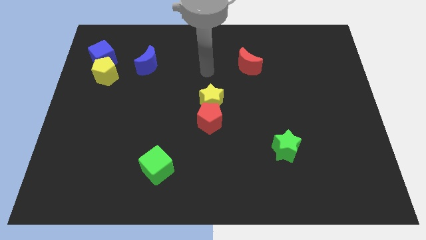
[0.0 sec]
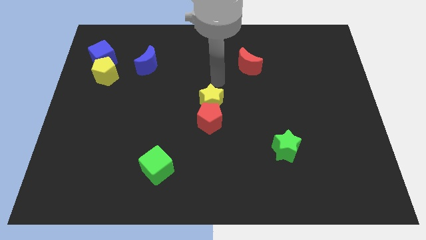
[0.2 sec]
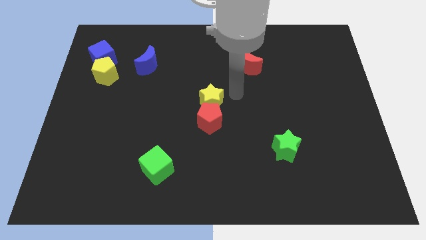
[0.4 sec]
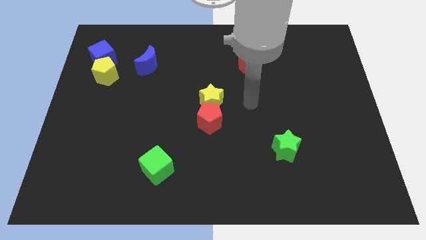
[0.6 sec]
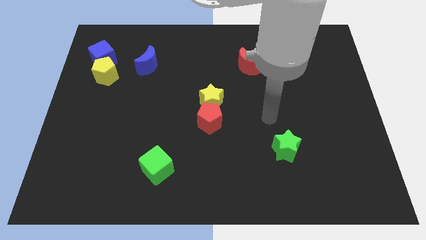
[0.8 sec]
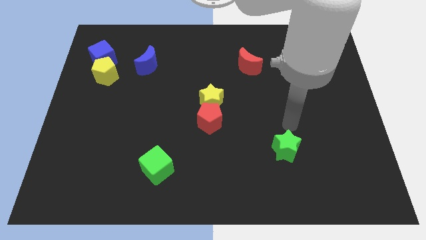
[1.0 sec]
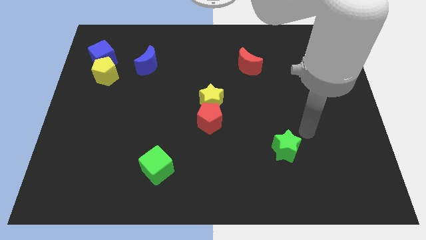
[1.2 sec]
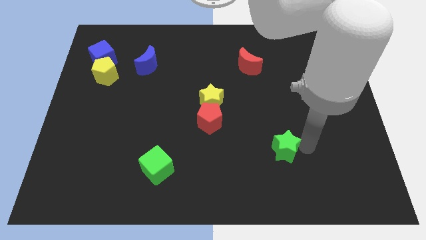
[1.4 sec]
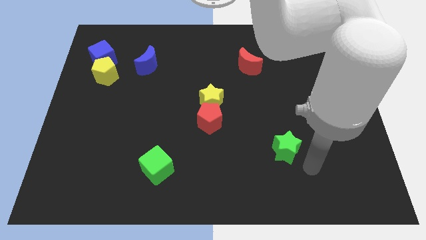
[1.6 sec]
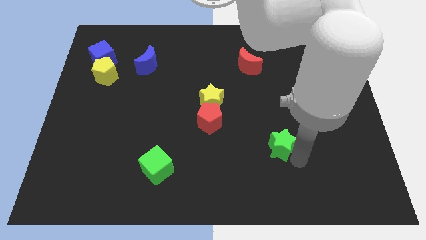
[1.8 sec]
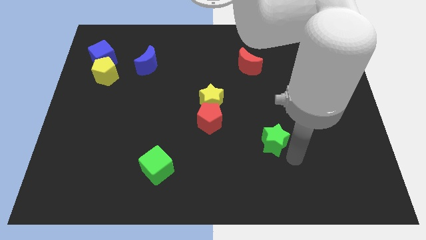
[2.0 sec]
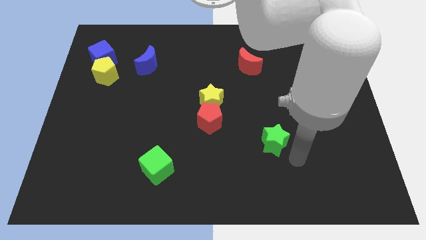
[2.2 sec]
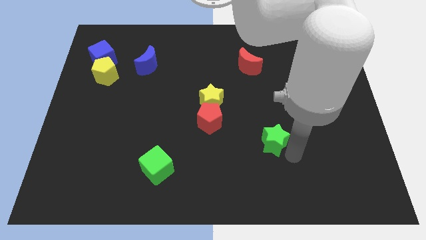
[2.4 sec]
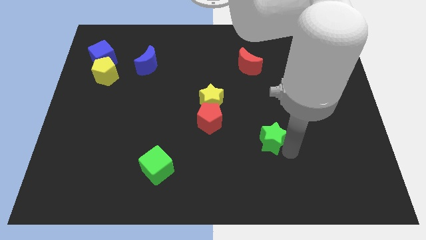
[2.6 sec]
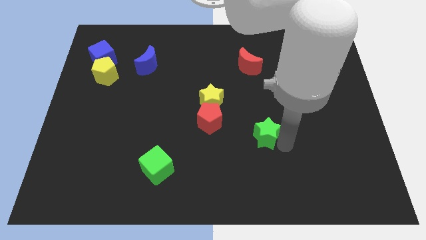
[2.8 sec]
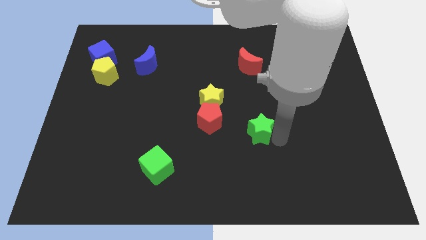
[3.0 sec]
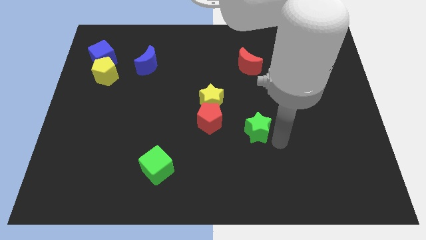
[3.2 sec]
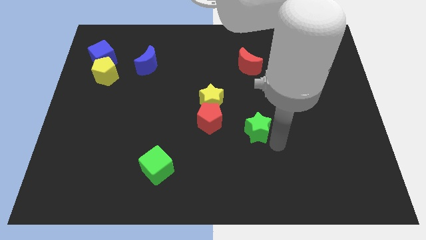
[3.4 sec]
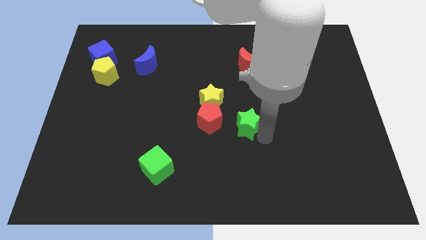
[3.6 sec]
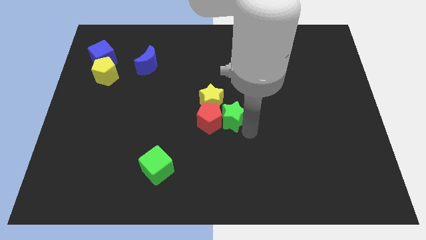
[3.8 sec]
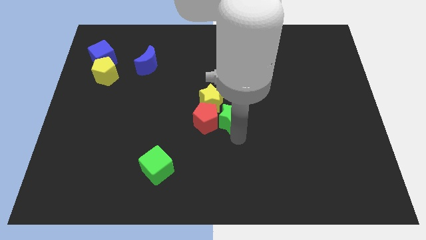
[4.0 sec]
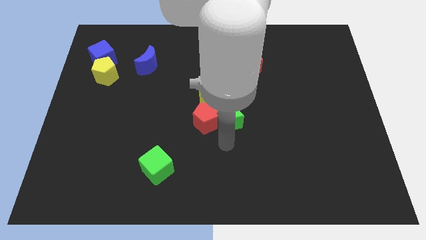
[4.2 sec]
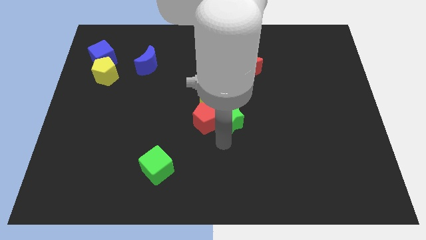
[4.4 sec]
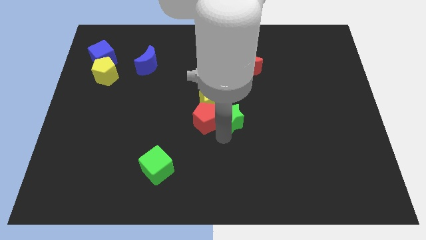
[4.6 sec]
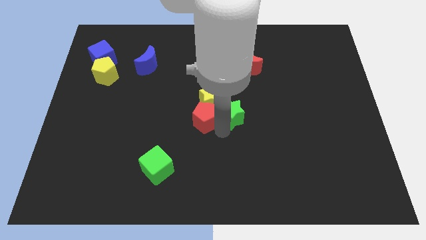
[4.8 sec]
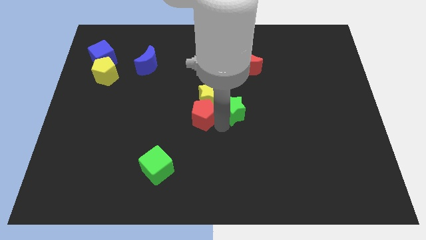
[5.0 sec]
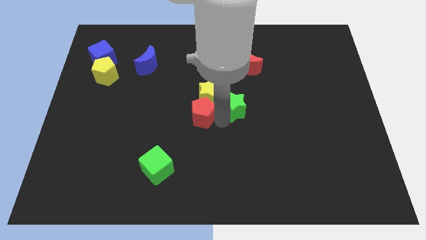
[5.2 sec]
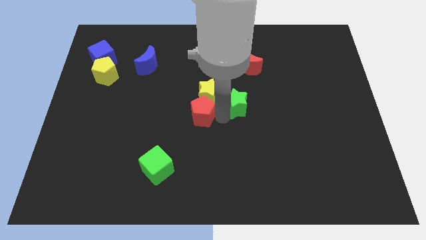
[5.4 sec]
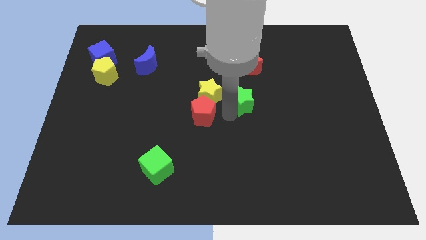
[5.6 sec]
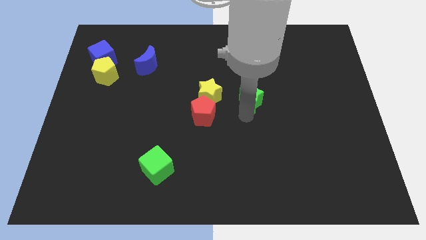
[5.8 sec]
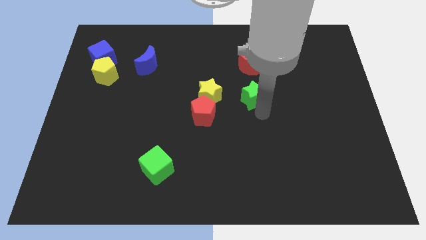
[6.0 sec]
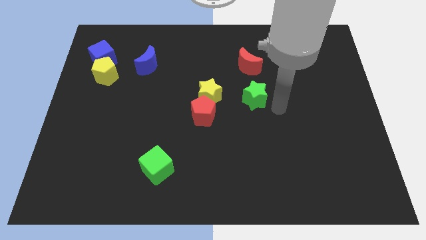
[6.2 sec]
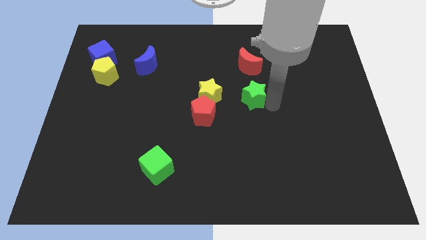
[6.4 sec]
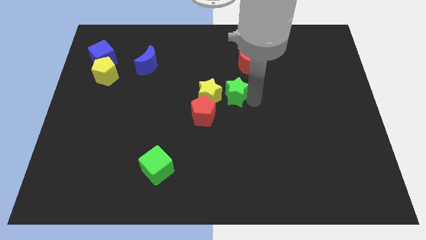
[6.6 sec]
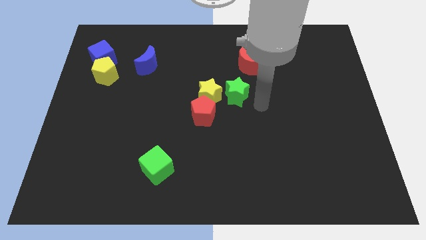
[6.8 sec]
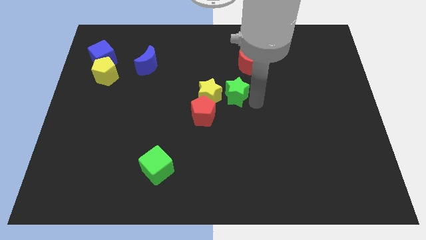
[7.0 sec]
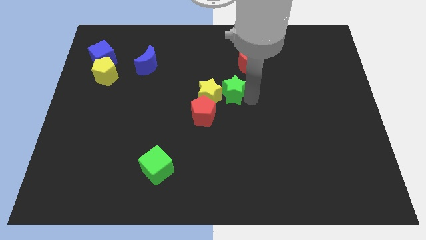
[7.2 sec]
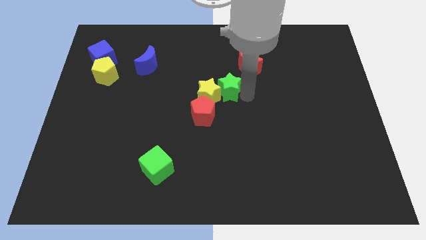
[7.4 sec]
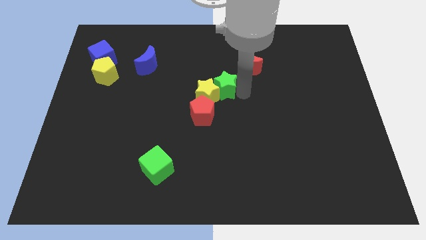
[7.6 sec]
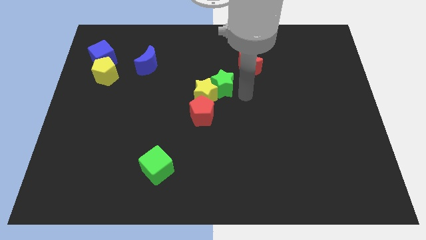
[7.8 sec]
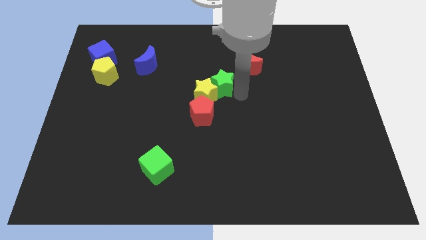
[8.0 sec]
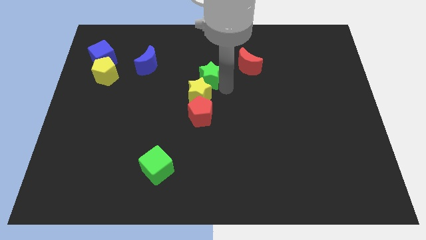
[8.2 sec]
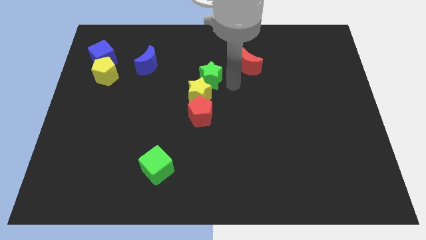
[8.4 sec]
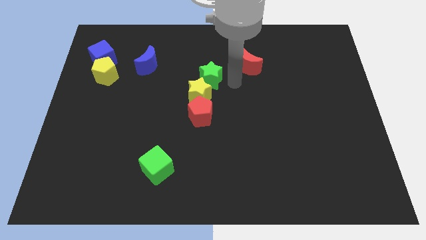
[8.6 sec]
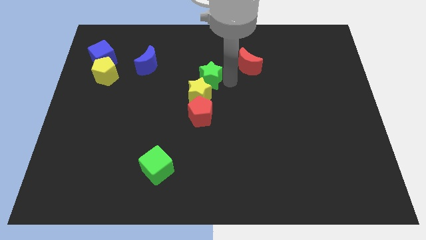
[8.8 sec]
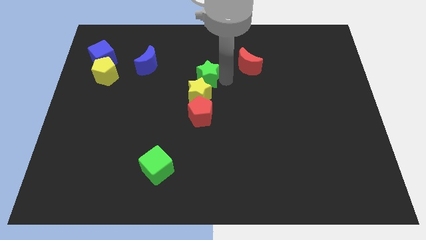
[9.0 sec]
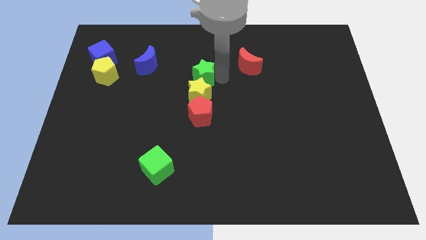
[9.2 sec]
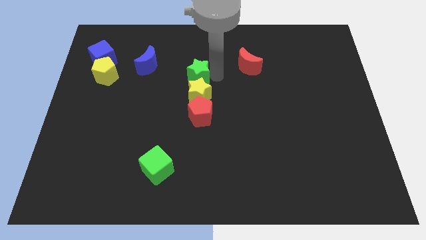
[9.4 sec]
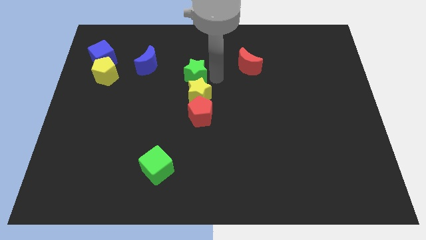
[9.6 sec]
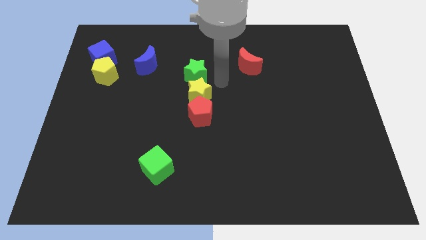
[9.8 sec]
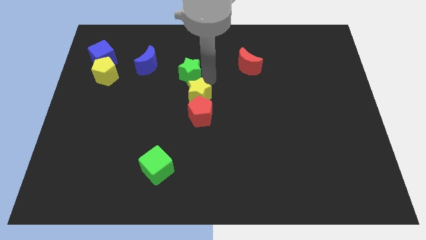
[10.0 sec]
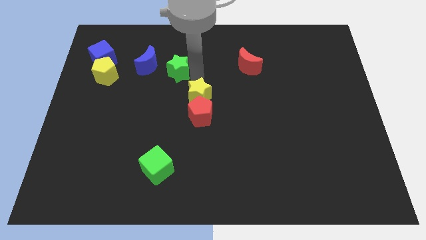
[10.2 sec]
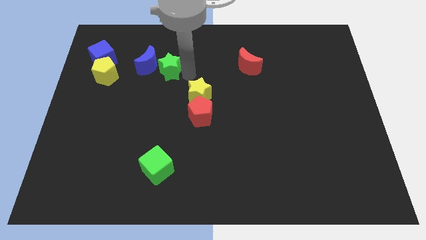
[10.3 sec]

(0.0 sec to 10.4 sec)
slide the green star to the blue moon

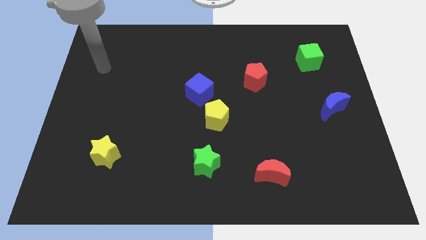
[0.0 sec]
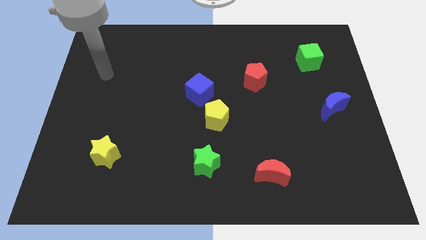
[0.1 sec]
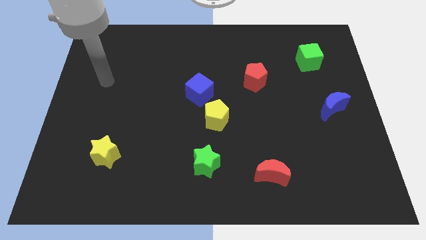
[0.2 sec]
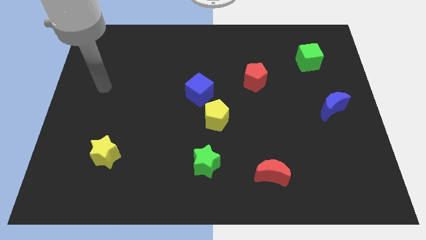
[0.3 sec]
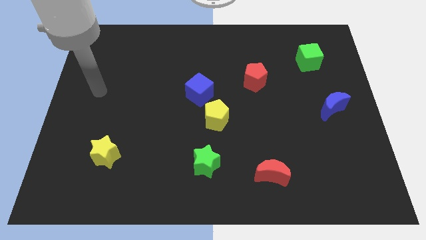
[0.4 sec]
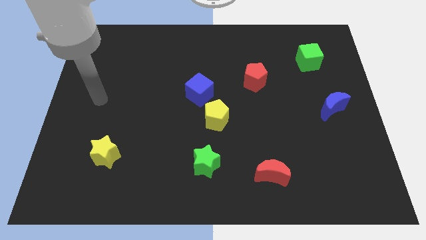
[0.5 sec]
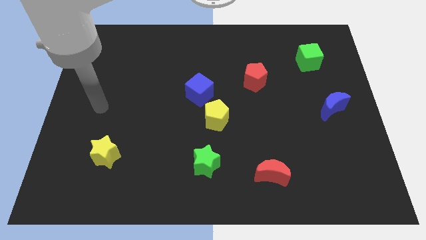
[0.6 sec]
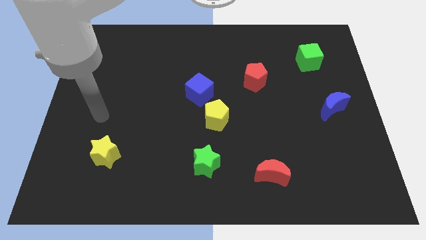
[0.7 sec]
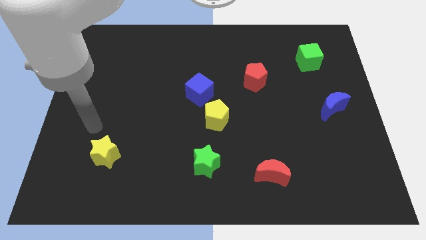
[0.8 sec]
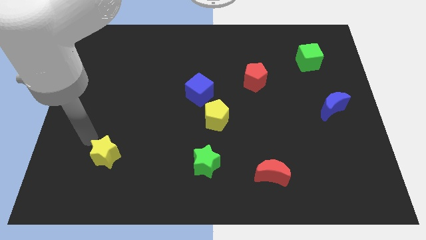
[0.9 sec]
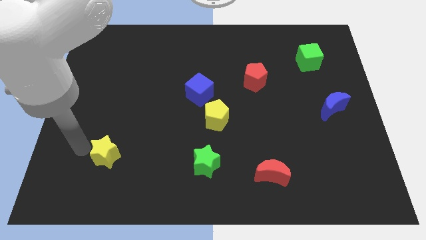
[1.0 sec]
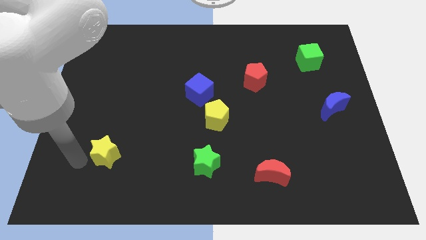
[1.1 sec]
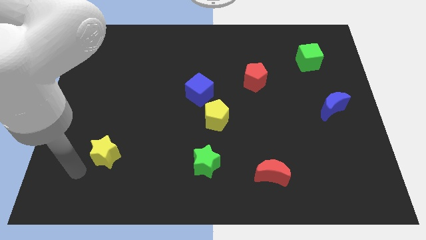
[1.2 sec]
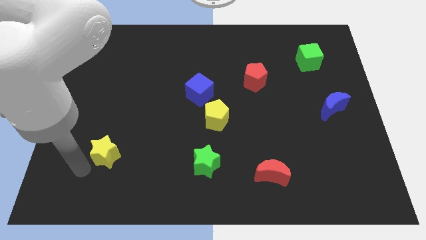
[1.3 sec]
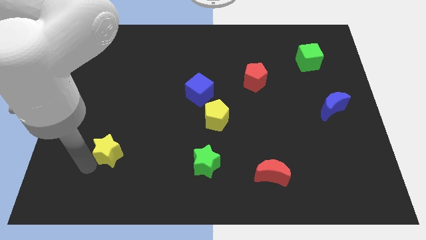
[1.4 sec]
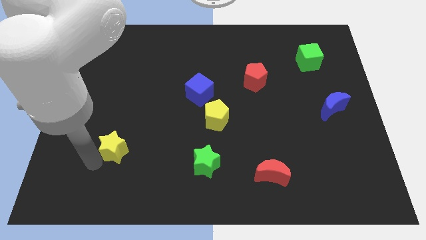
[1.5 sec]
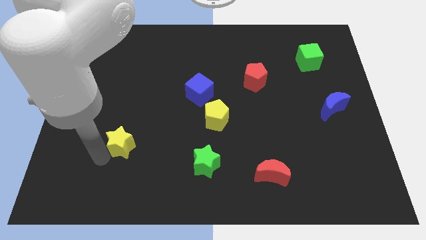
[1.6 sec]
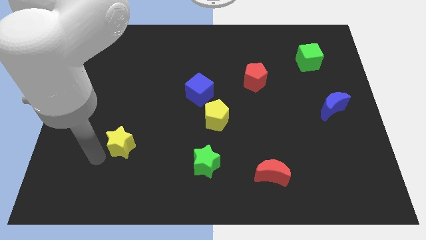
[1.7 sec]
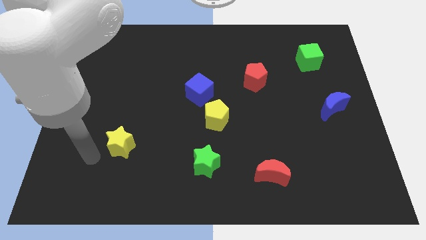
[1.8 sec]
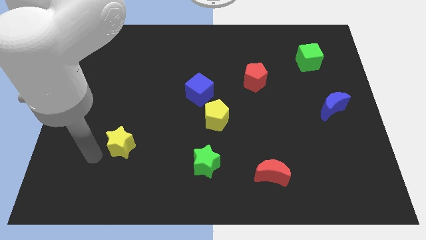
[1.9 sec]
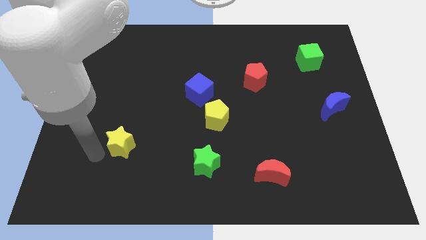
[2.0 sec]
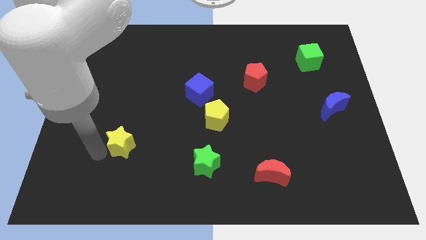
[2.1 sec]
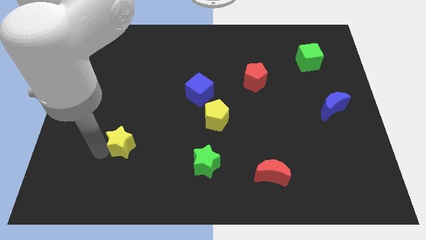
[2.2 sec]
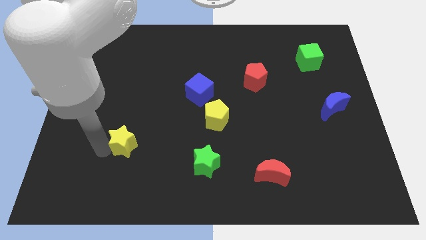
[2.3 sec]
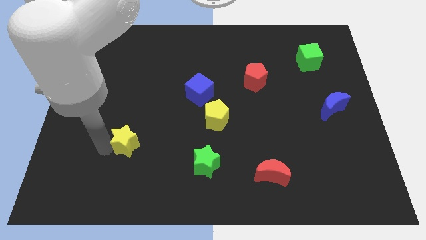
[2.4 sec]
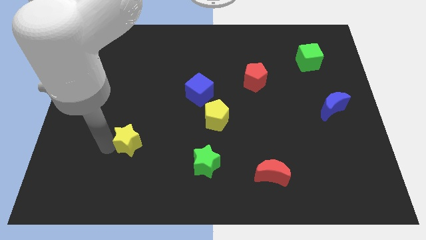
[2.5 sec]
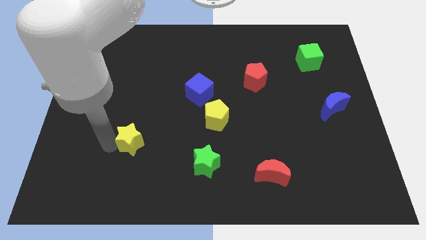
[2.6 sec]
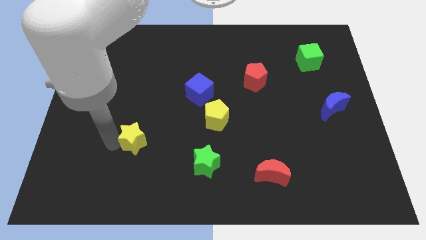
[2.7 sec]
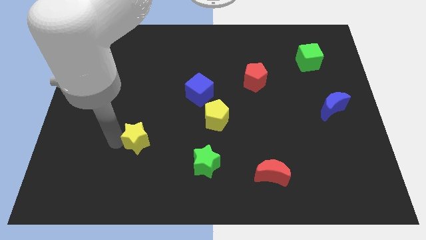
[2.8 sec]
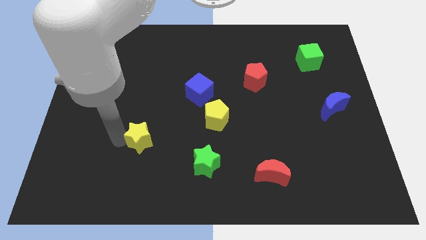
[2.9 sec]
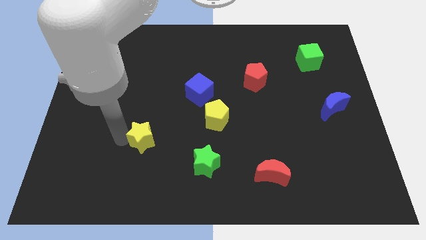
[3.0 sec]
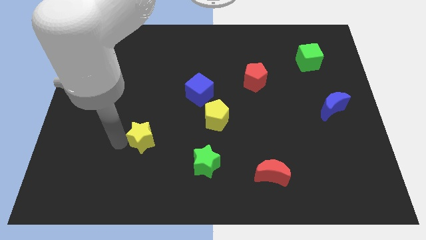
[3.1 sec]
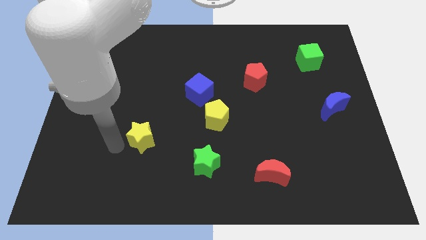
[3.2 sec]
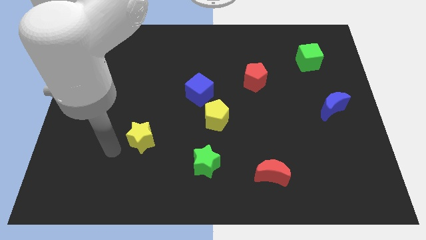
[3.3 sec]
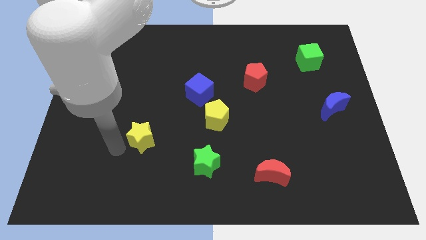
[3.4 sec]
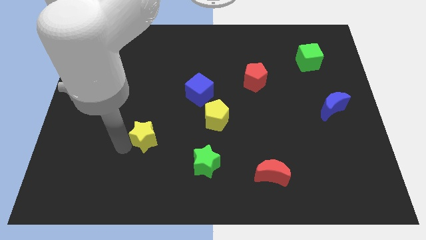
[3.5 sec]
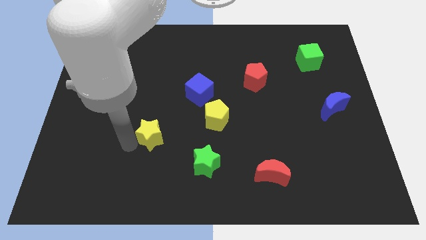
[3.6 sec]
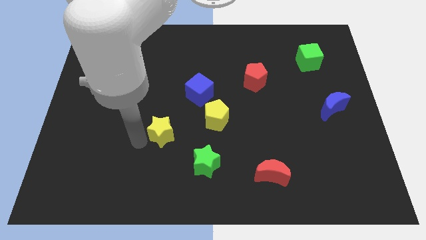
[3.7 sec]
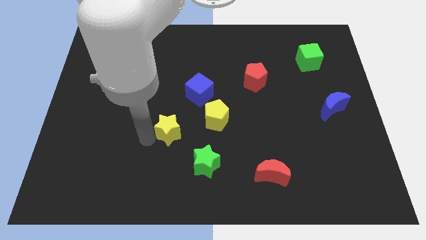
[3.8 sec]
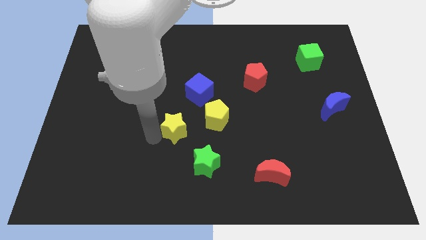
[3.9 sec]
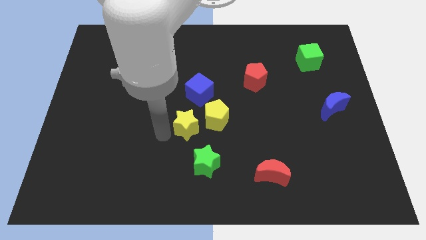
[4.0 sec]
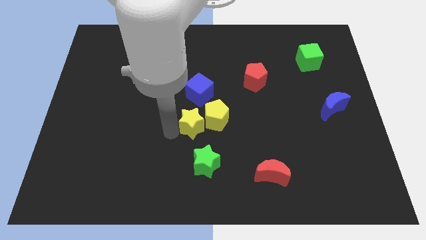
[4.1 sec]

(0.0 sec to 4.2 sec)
put the yellow star next to the yellow pentagon
